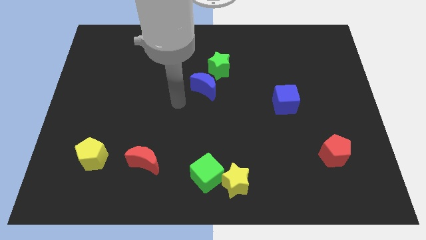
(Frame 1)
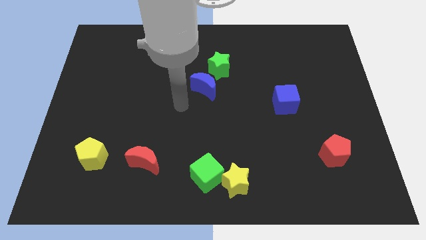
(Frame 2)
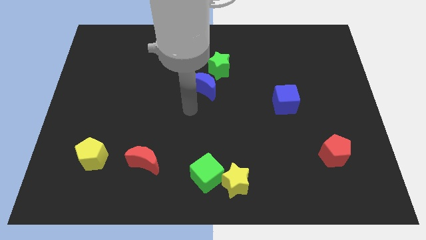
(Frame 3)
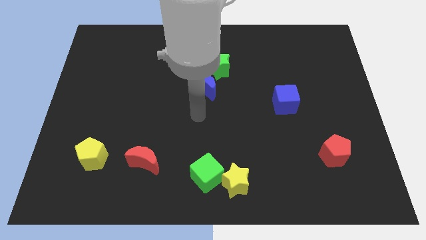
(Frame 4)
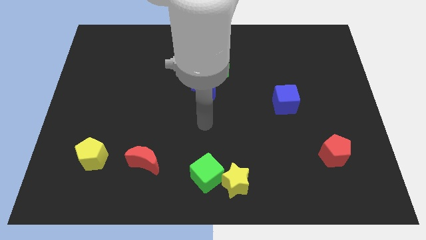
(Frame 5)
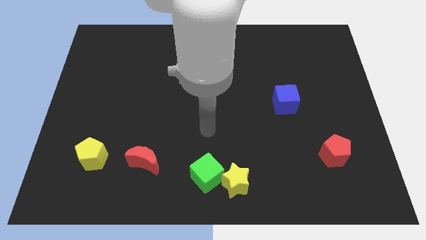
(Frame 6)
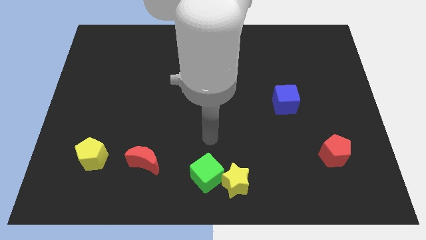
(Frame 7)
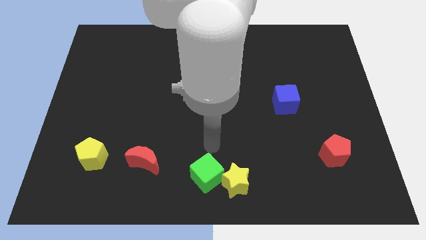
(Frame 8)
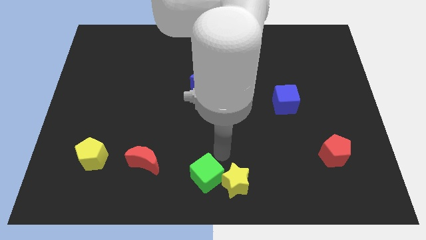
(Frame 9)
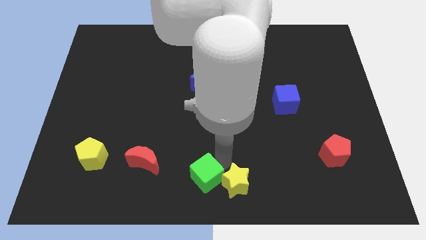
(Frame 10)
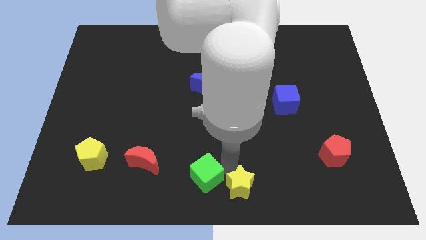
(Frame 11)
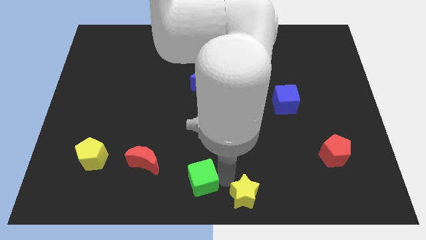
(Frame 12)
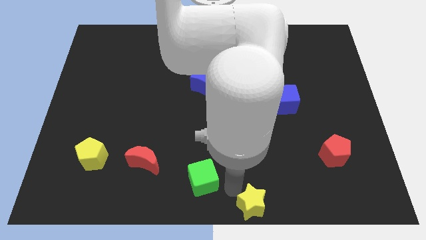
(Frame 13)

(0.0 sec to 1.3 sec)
move the green cube away from the yellow star

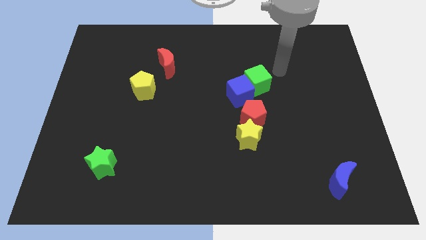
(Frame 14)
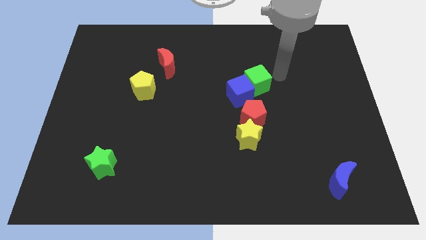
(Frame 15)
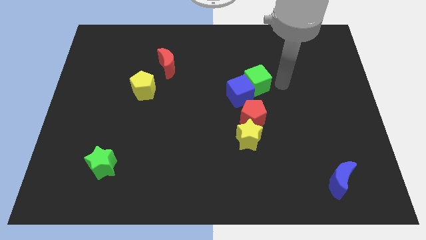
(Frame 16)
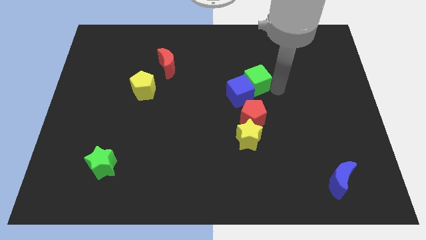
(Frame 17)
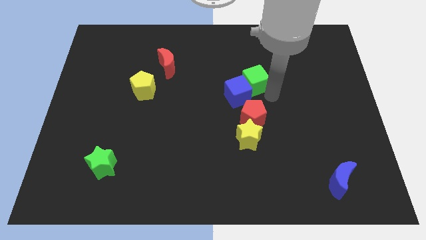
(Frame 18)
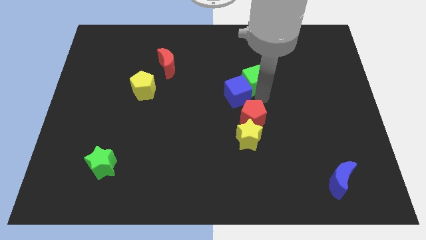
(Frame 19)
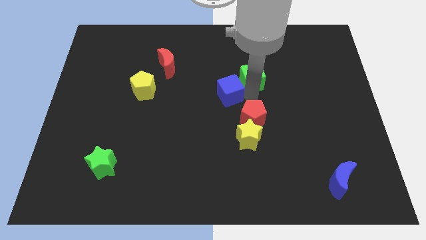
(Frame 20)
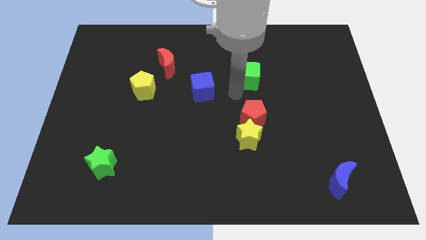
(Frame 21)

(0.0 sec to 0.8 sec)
pull the green cube apart from the blue cube

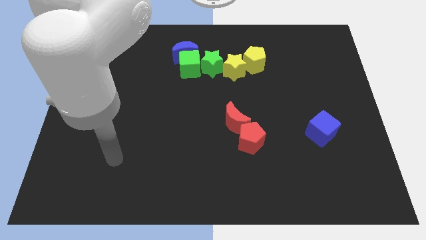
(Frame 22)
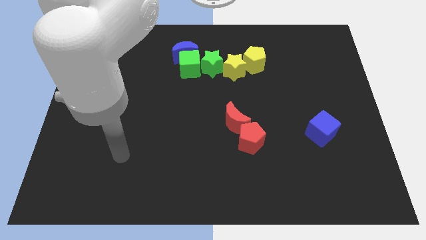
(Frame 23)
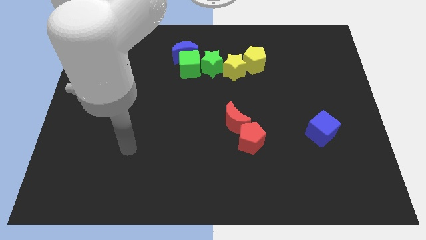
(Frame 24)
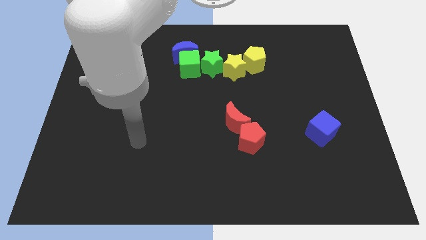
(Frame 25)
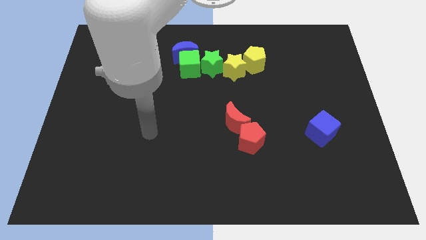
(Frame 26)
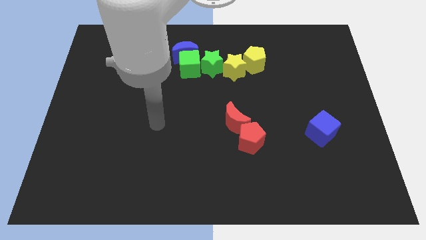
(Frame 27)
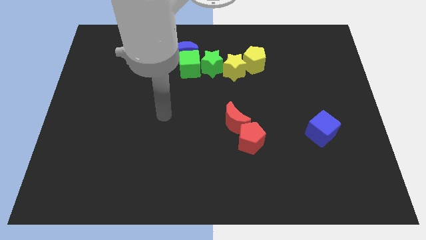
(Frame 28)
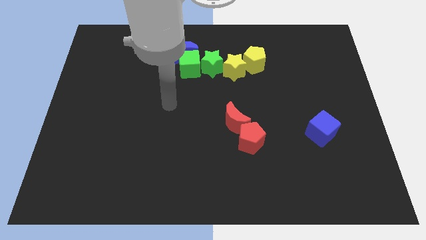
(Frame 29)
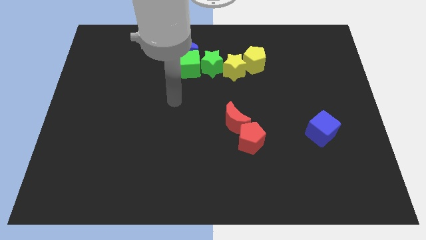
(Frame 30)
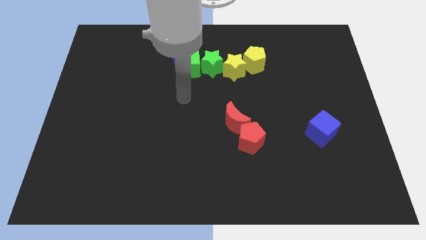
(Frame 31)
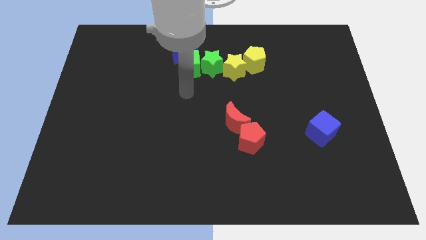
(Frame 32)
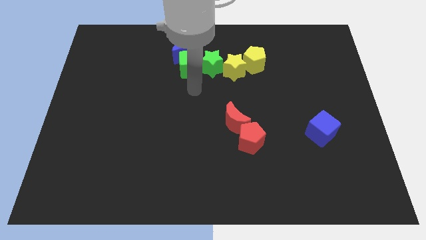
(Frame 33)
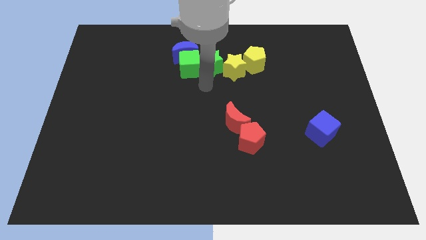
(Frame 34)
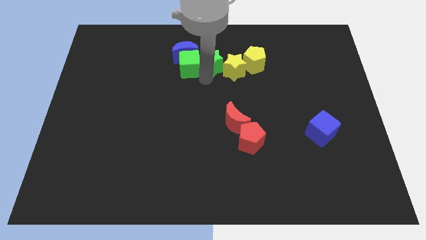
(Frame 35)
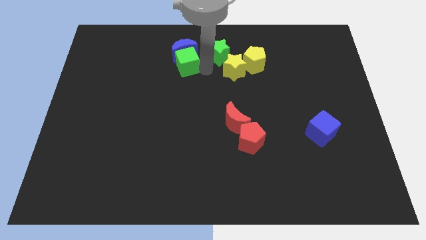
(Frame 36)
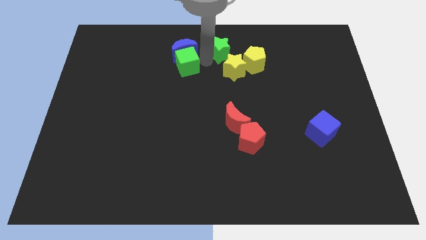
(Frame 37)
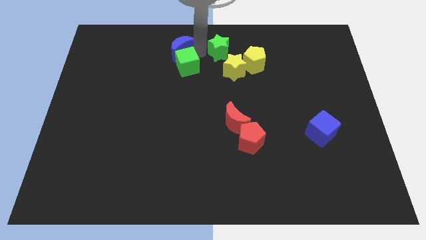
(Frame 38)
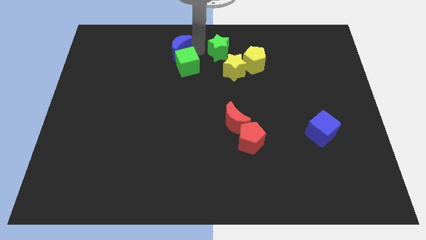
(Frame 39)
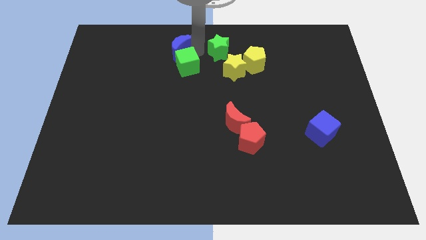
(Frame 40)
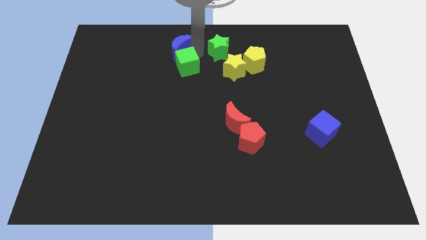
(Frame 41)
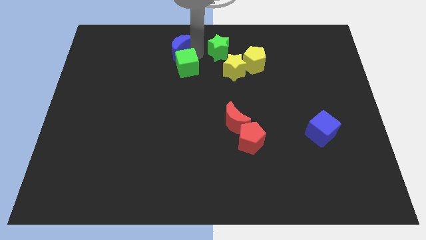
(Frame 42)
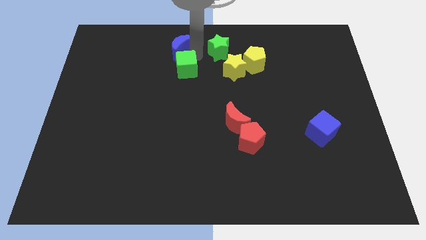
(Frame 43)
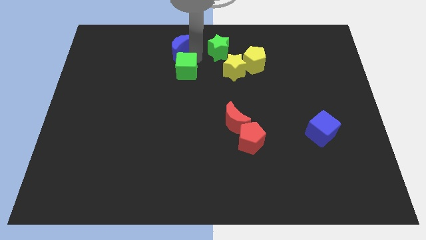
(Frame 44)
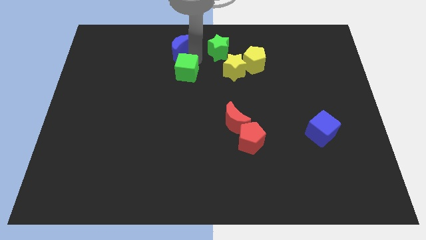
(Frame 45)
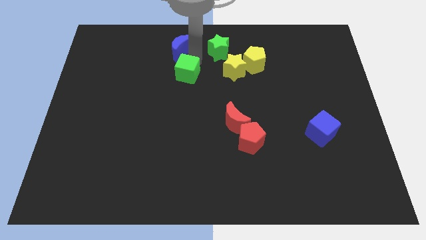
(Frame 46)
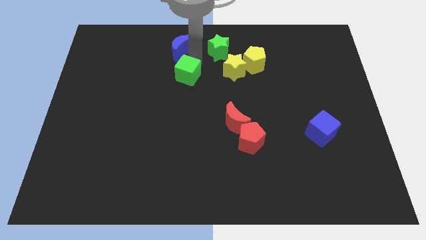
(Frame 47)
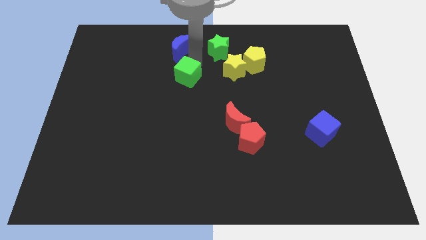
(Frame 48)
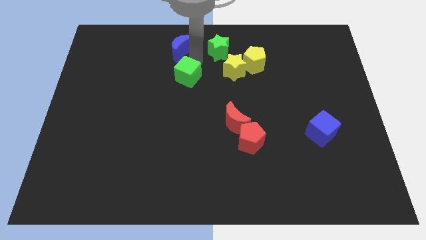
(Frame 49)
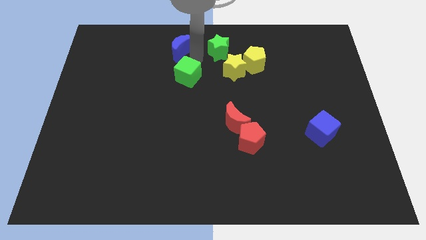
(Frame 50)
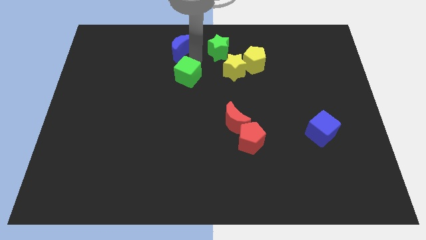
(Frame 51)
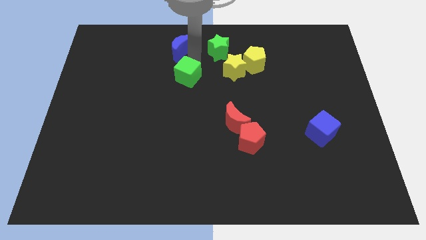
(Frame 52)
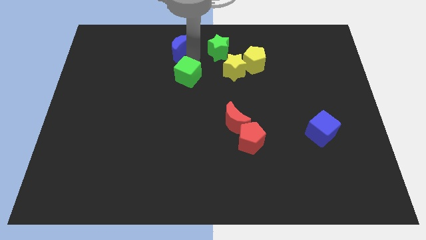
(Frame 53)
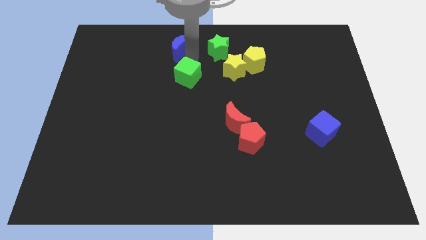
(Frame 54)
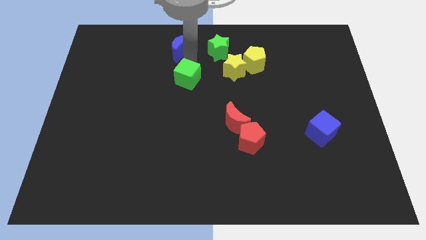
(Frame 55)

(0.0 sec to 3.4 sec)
pull the green cube apart from the blue moon and green star

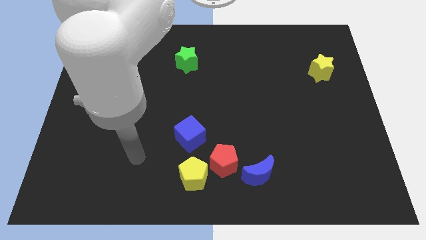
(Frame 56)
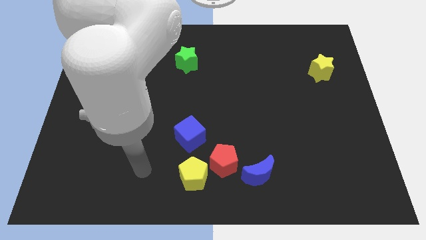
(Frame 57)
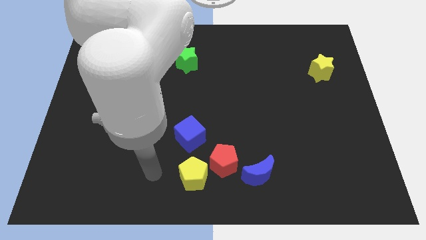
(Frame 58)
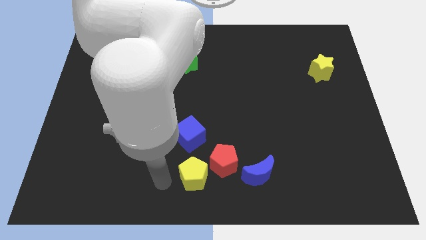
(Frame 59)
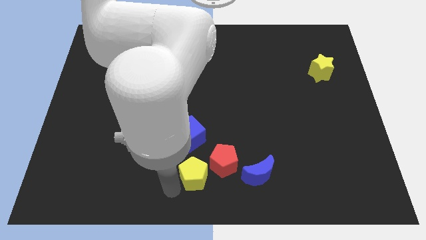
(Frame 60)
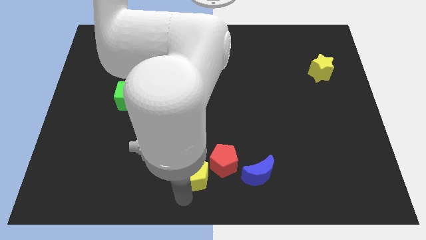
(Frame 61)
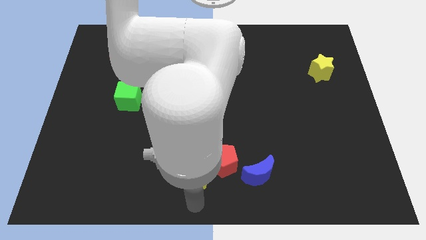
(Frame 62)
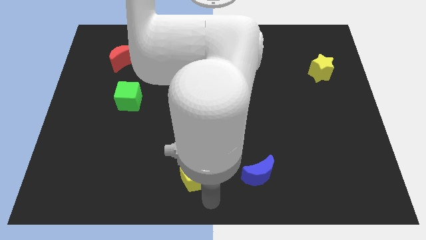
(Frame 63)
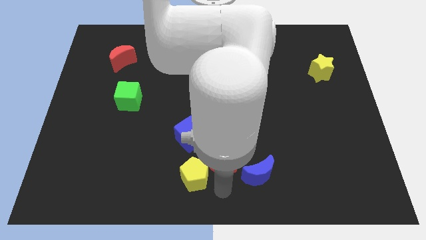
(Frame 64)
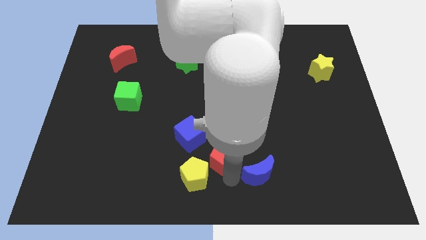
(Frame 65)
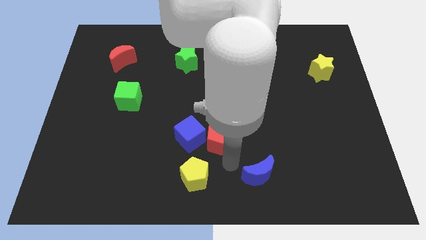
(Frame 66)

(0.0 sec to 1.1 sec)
move the blue moon away from the red pentagon

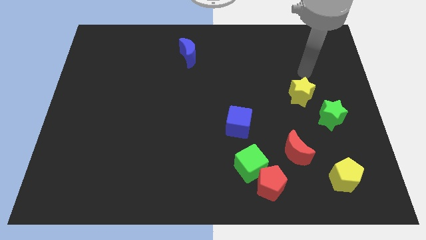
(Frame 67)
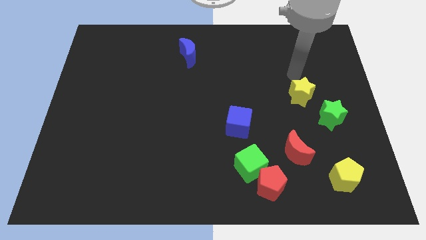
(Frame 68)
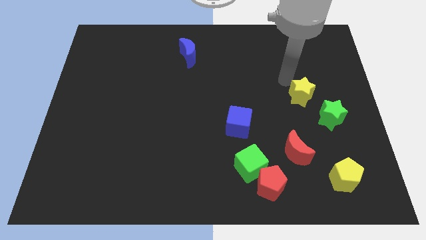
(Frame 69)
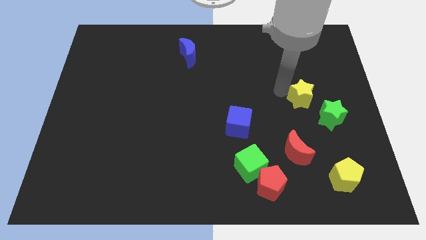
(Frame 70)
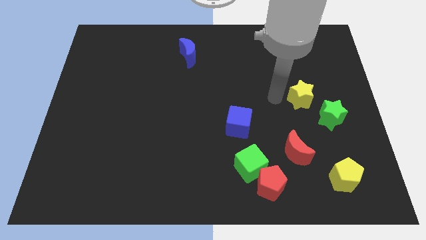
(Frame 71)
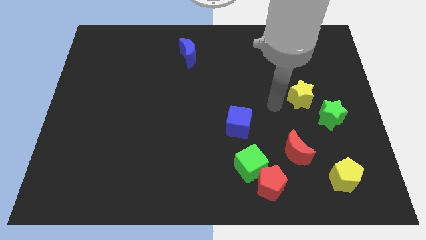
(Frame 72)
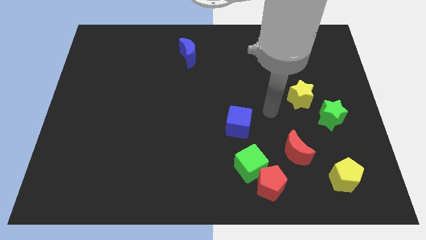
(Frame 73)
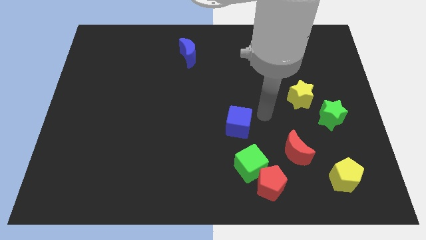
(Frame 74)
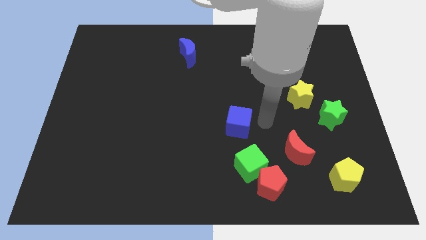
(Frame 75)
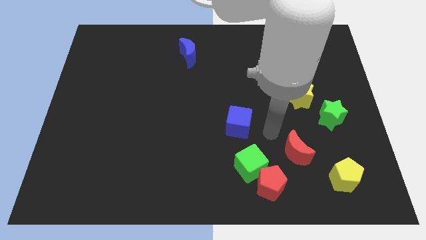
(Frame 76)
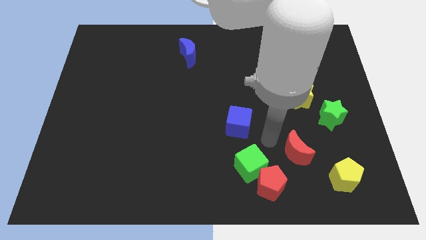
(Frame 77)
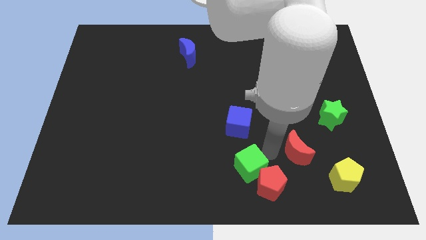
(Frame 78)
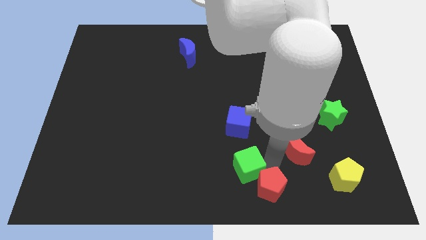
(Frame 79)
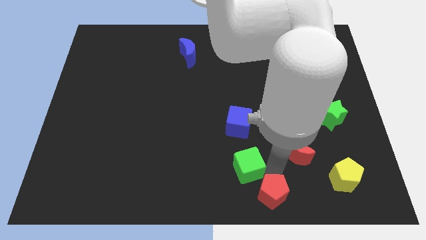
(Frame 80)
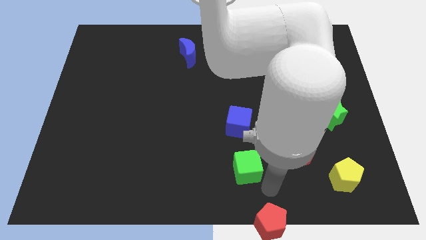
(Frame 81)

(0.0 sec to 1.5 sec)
move the green cube away from the red pentagon

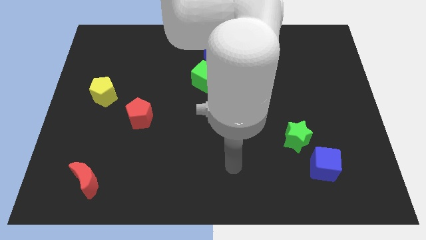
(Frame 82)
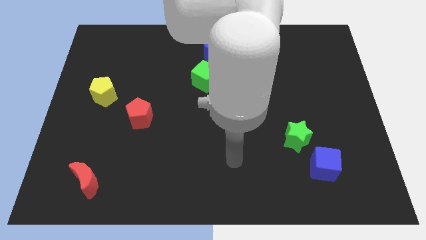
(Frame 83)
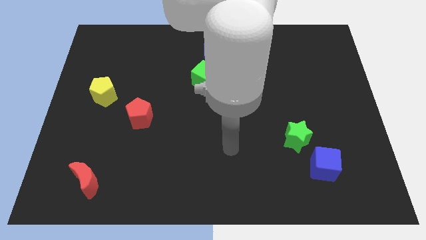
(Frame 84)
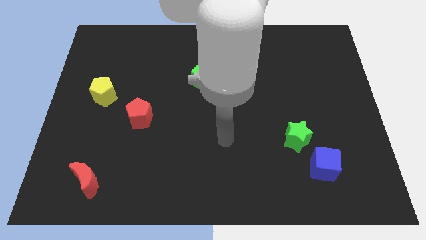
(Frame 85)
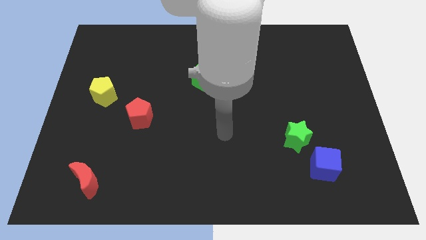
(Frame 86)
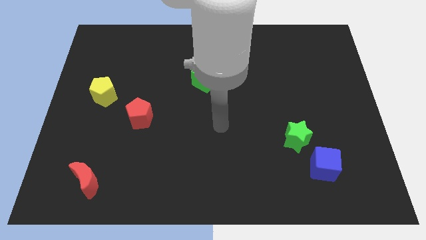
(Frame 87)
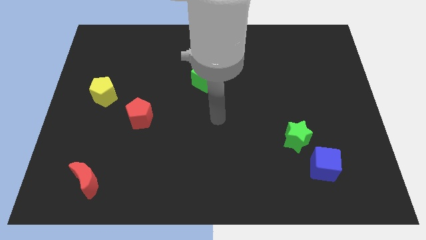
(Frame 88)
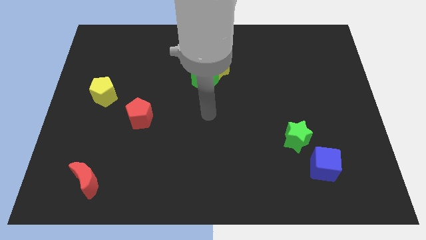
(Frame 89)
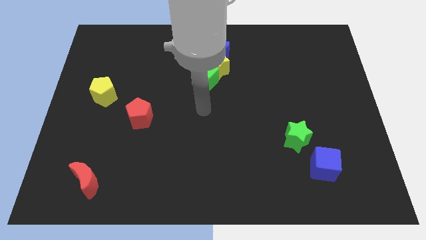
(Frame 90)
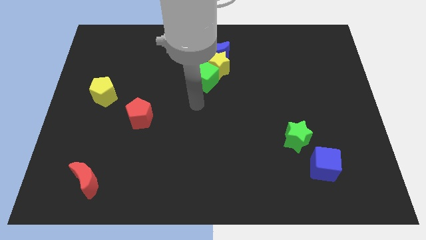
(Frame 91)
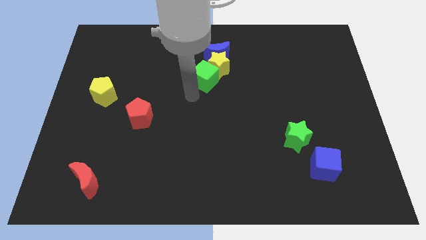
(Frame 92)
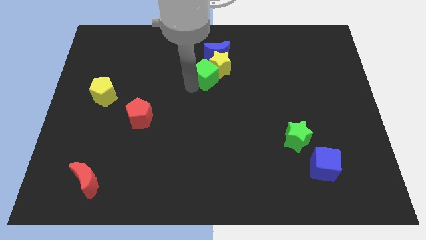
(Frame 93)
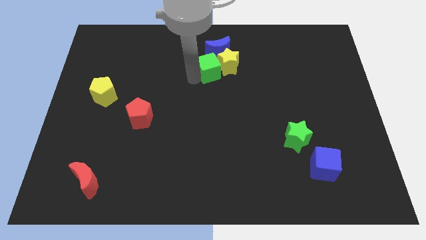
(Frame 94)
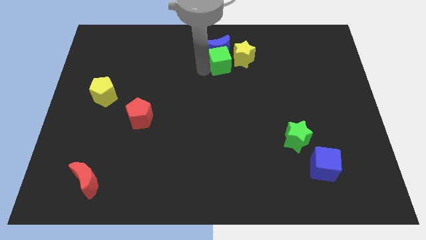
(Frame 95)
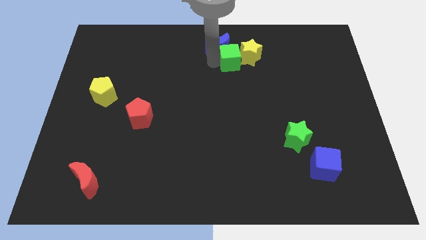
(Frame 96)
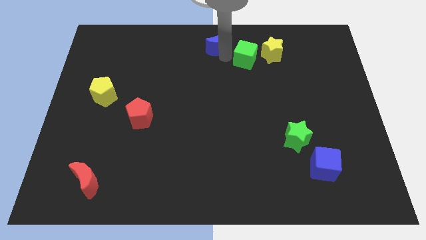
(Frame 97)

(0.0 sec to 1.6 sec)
separate the yellow star from the blue moon and green cube
